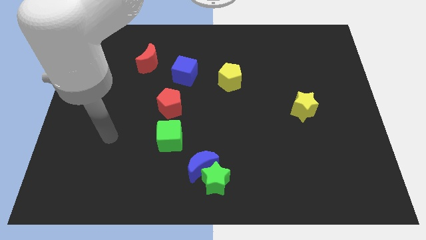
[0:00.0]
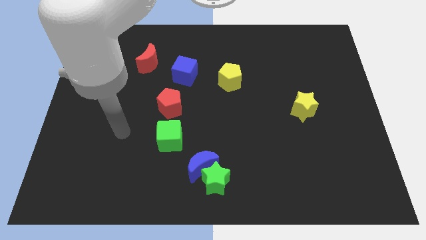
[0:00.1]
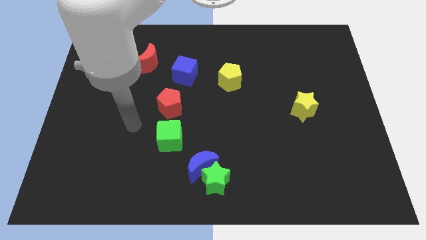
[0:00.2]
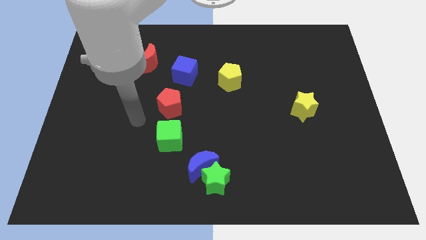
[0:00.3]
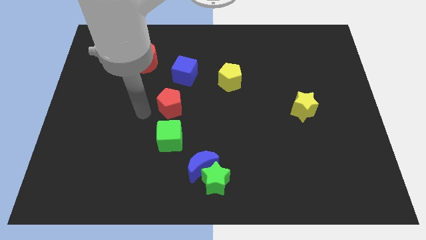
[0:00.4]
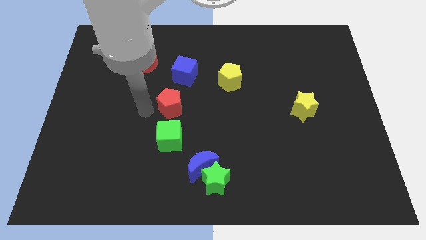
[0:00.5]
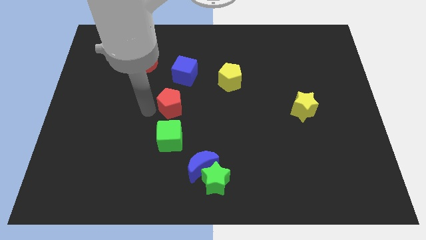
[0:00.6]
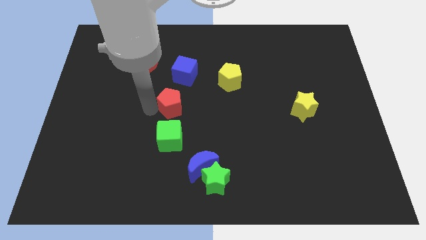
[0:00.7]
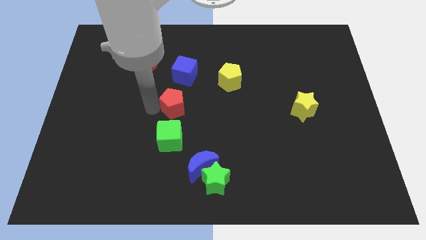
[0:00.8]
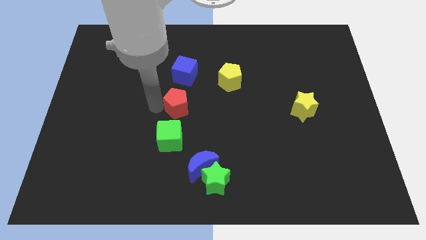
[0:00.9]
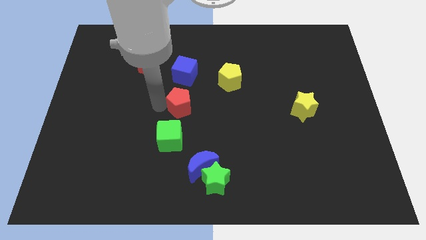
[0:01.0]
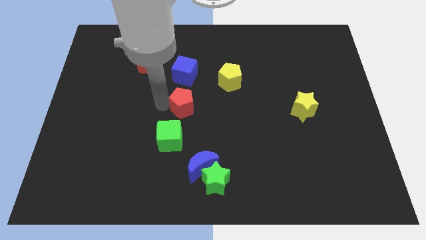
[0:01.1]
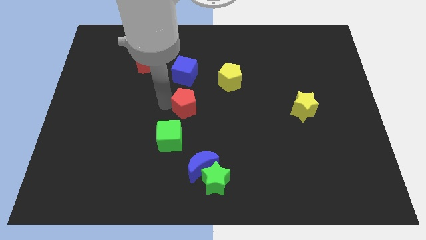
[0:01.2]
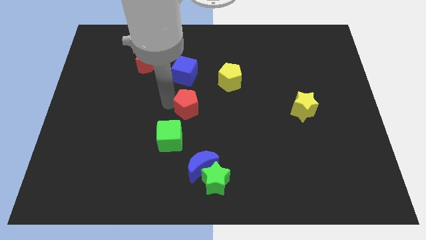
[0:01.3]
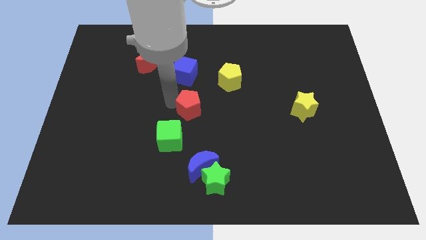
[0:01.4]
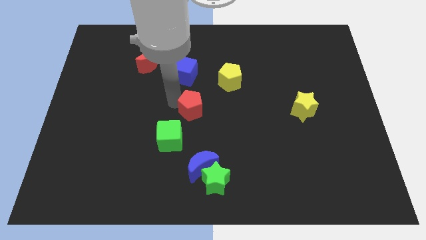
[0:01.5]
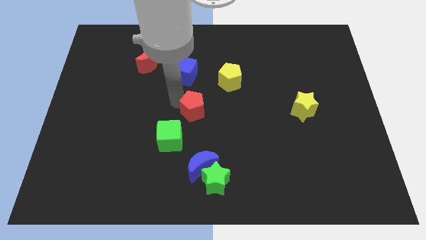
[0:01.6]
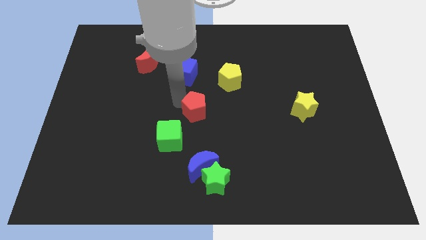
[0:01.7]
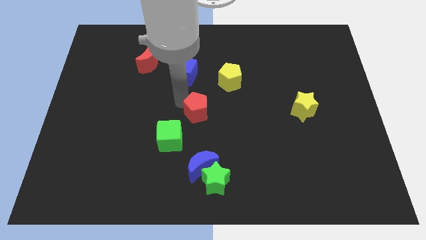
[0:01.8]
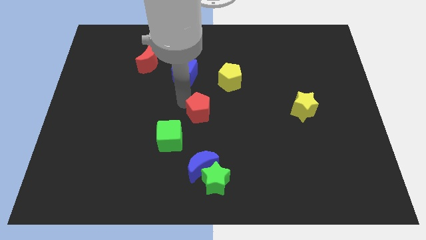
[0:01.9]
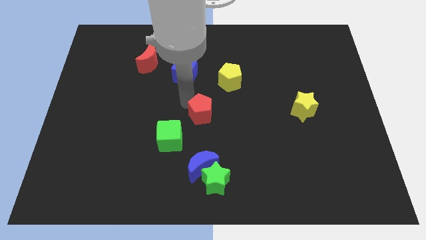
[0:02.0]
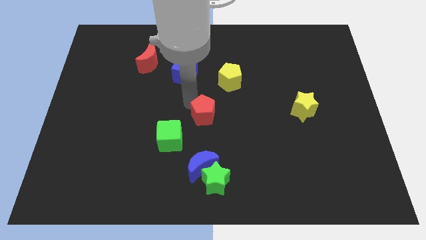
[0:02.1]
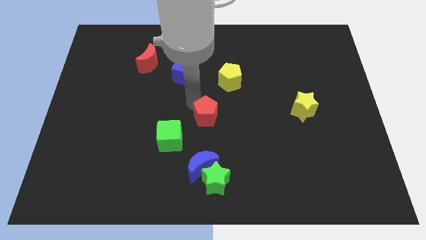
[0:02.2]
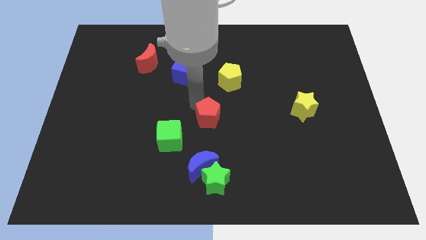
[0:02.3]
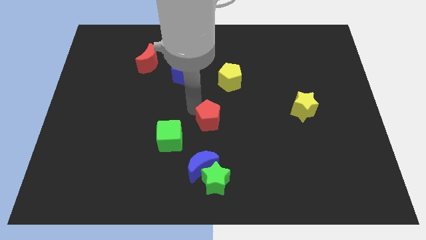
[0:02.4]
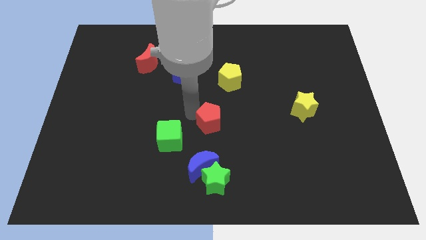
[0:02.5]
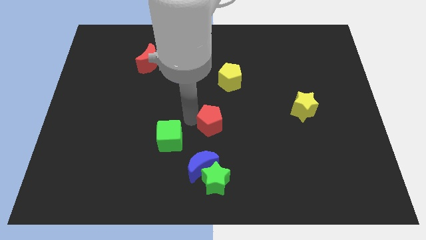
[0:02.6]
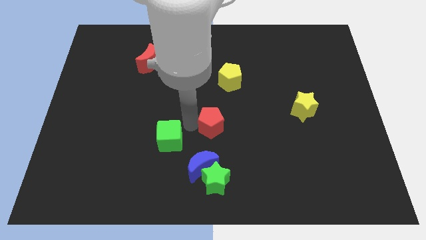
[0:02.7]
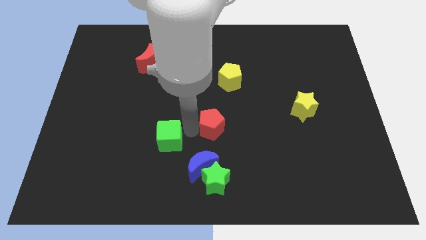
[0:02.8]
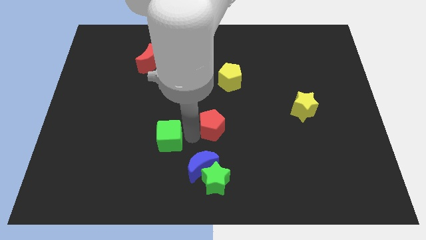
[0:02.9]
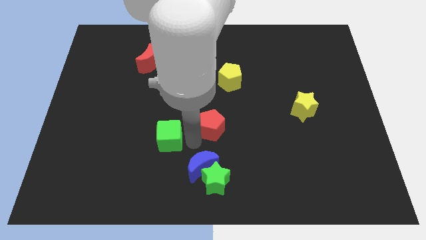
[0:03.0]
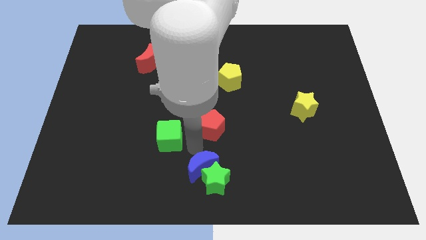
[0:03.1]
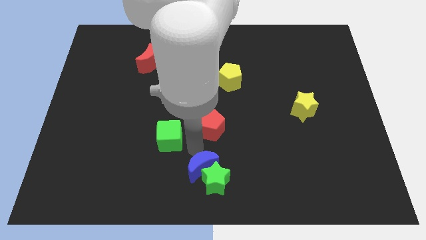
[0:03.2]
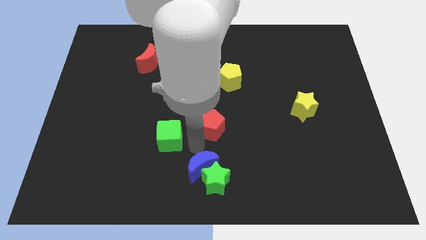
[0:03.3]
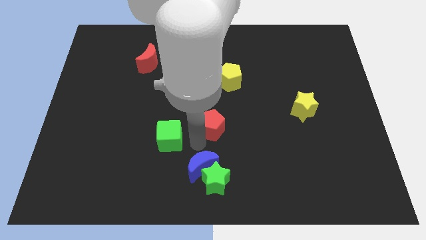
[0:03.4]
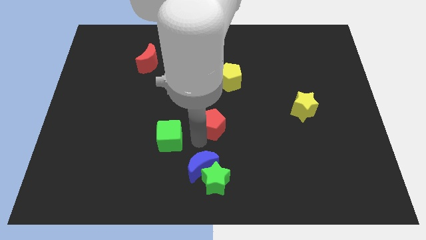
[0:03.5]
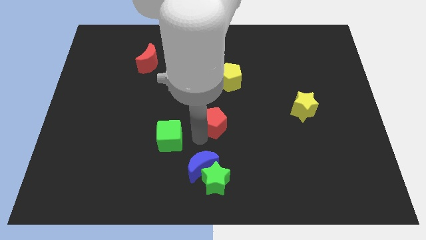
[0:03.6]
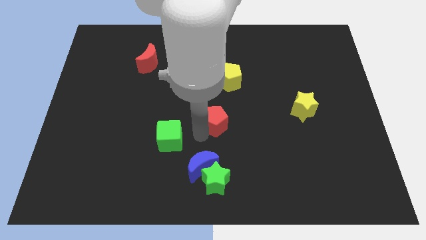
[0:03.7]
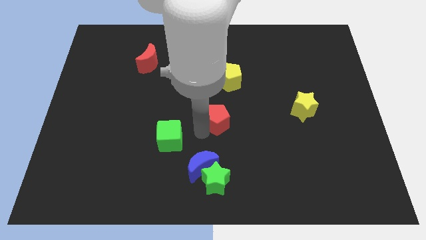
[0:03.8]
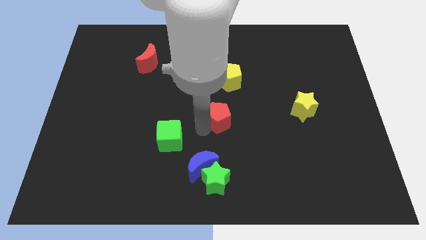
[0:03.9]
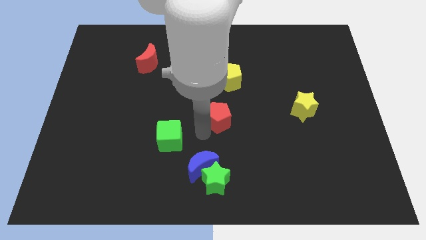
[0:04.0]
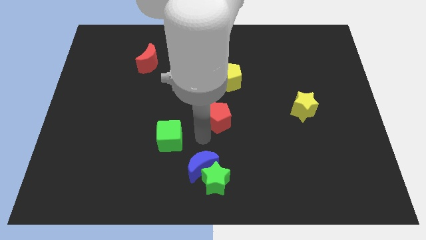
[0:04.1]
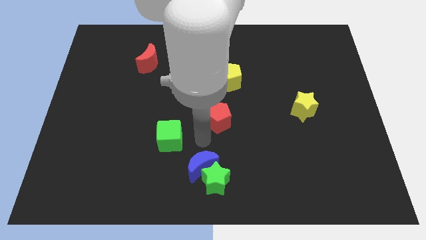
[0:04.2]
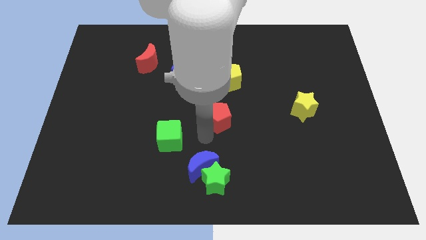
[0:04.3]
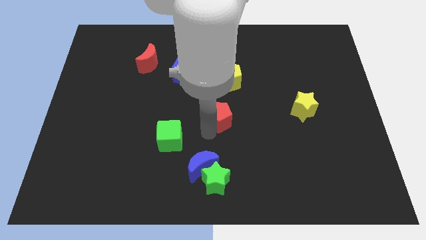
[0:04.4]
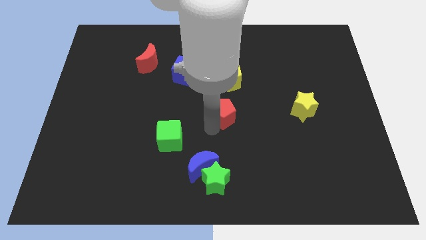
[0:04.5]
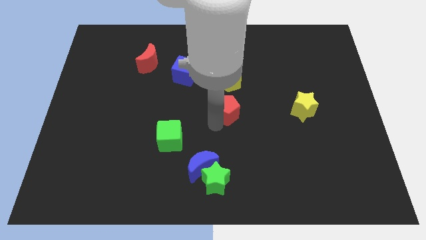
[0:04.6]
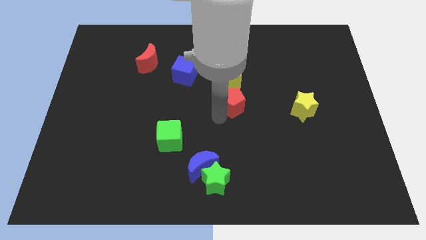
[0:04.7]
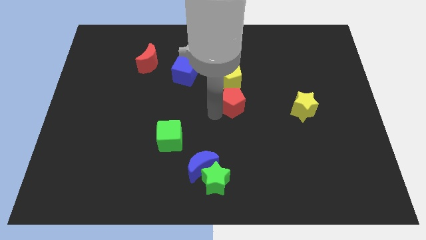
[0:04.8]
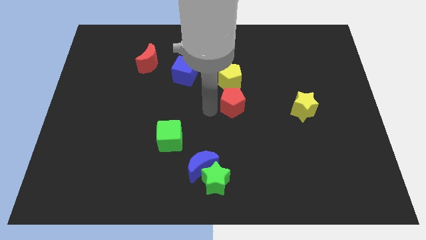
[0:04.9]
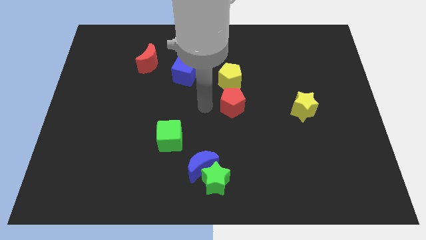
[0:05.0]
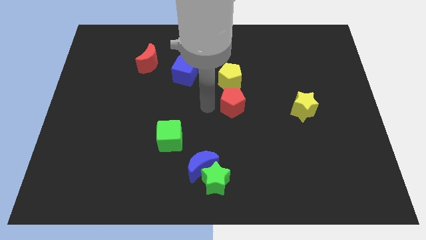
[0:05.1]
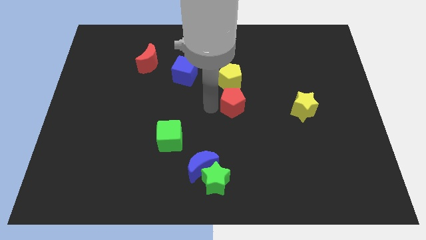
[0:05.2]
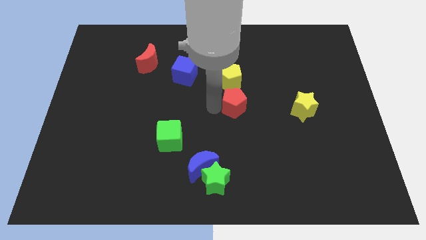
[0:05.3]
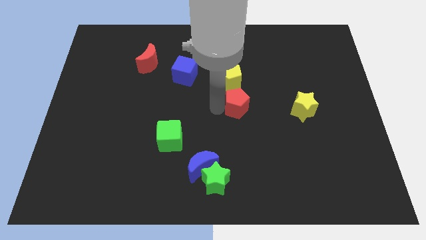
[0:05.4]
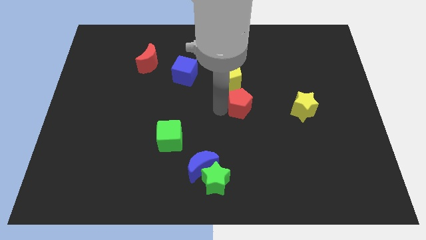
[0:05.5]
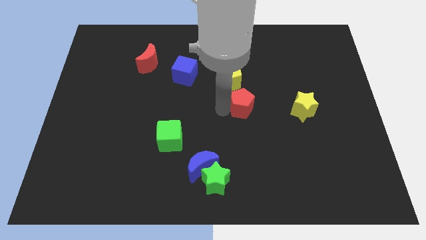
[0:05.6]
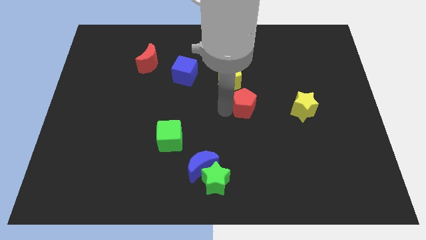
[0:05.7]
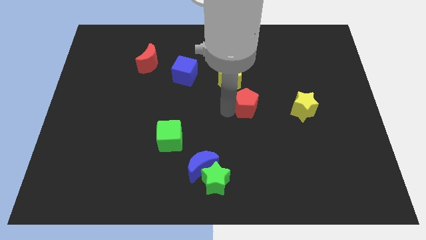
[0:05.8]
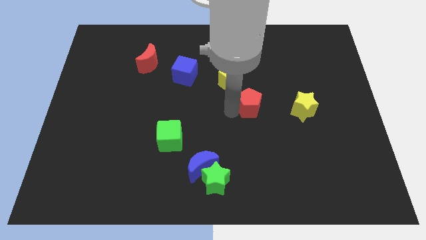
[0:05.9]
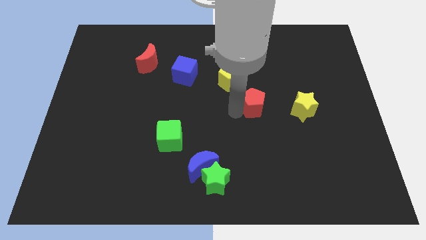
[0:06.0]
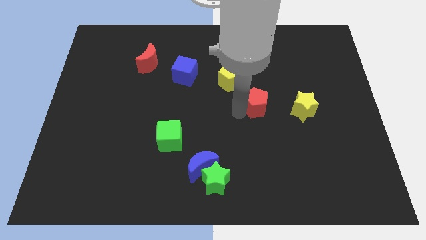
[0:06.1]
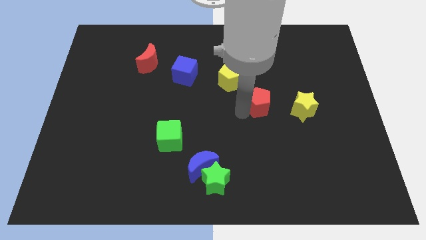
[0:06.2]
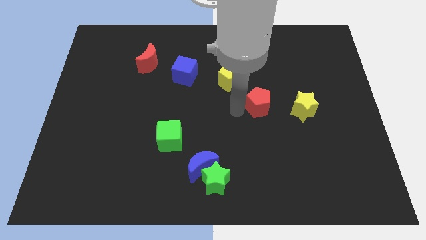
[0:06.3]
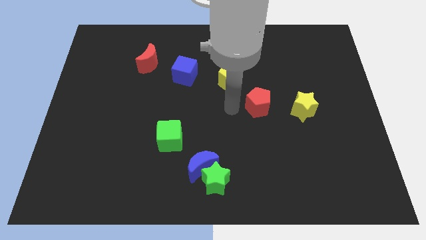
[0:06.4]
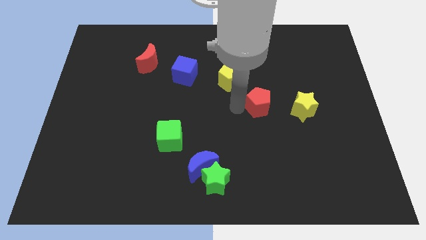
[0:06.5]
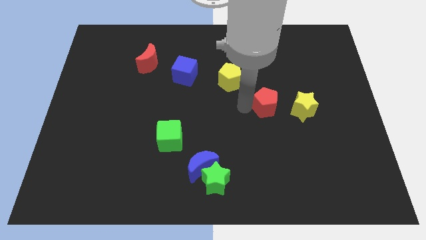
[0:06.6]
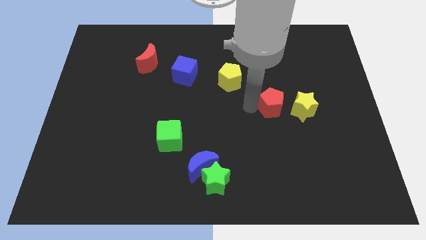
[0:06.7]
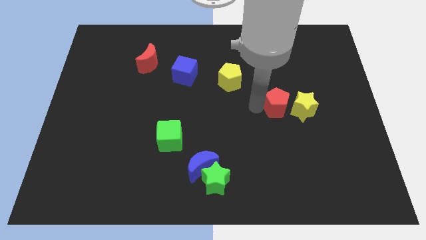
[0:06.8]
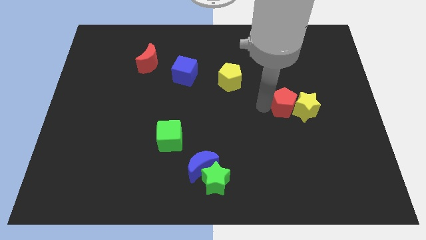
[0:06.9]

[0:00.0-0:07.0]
move the red pentagon close to the yellow star
